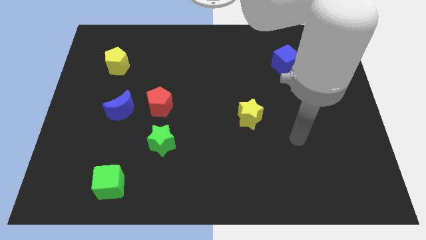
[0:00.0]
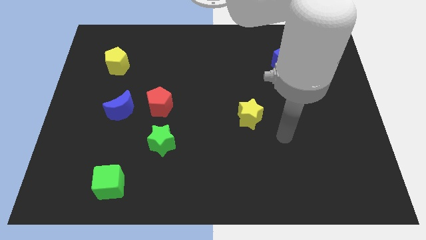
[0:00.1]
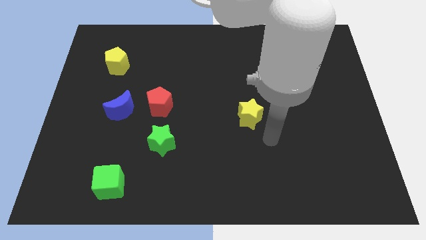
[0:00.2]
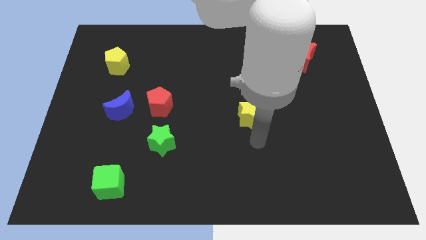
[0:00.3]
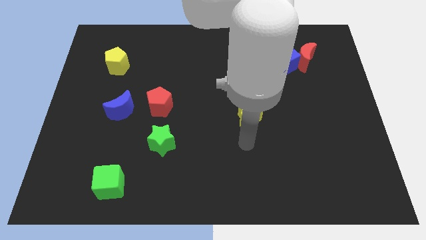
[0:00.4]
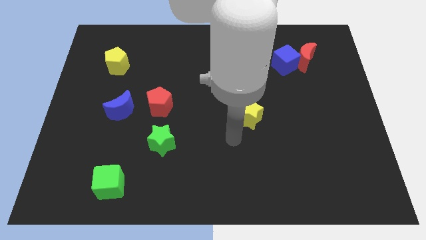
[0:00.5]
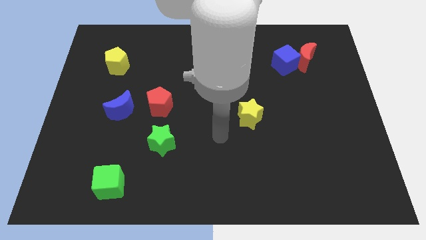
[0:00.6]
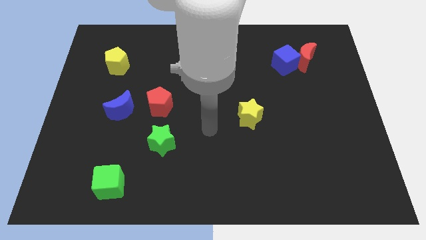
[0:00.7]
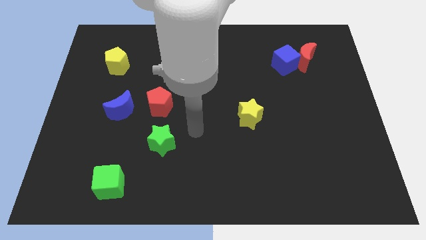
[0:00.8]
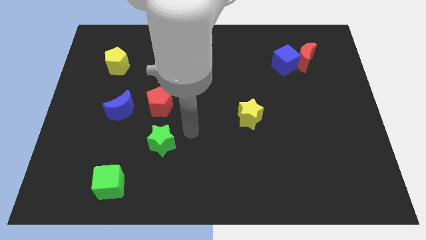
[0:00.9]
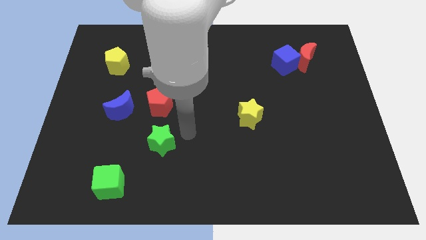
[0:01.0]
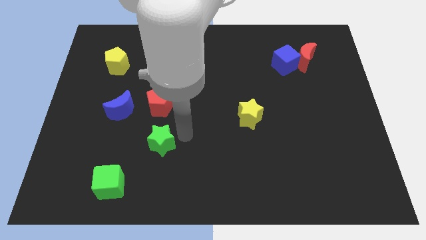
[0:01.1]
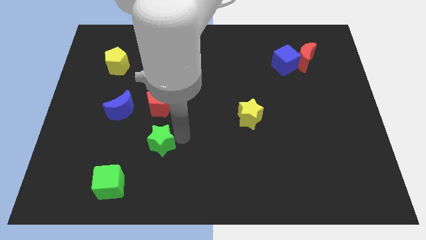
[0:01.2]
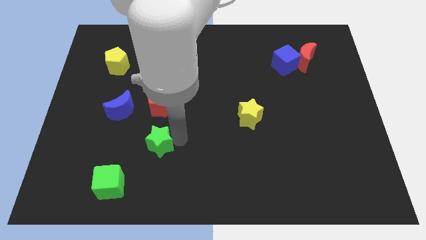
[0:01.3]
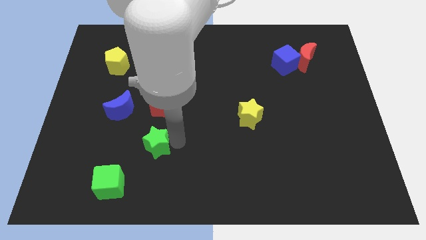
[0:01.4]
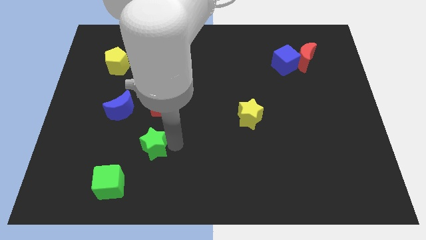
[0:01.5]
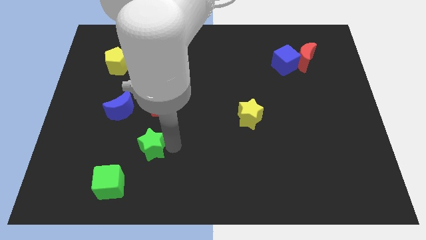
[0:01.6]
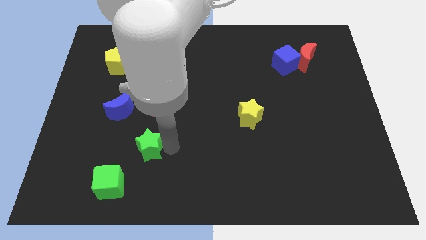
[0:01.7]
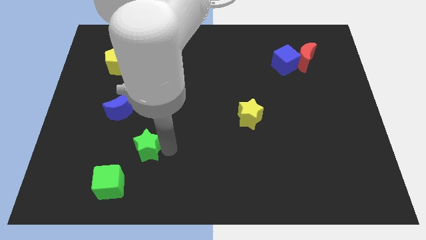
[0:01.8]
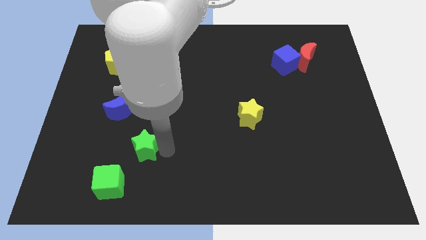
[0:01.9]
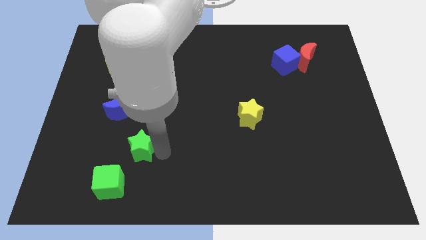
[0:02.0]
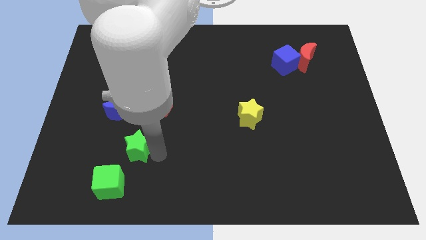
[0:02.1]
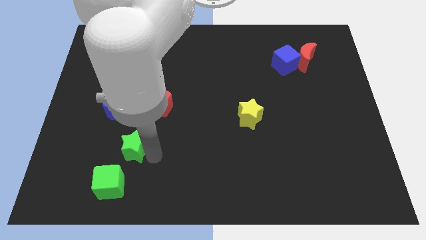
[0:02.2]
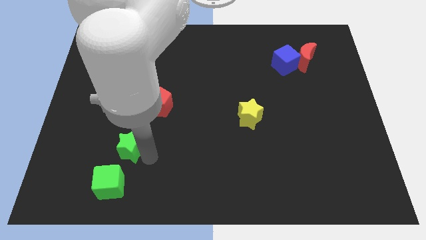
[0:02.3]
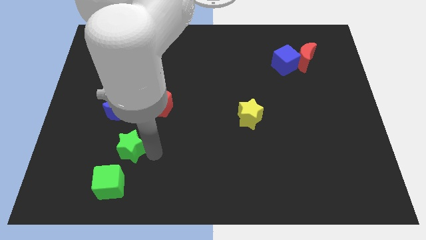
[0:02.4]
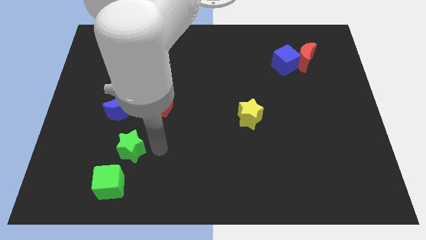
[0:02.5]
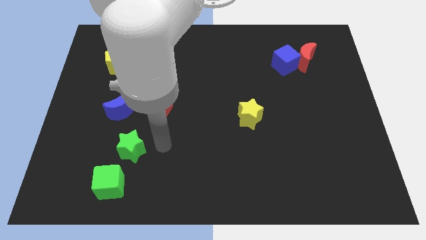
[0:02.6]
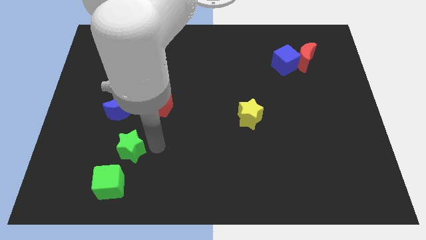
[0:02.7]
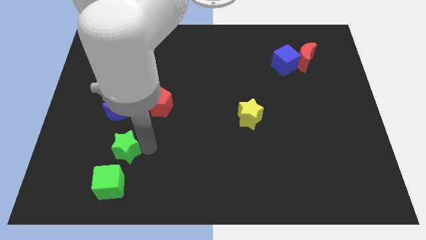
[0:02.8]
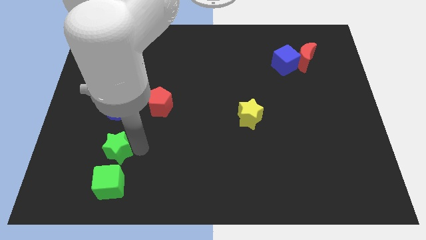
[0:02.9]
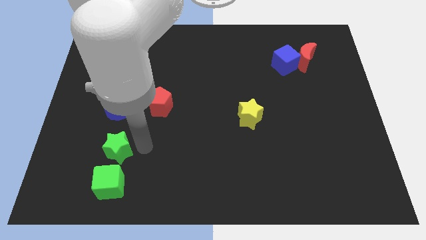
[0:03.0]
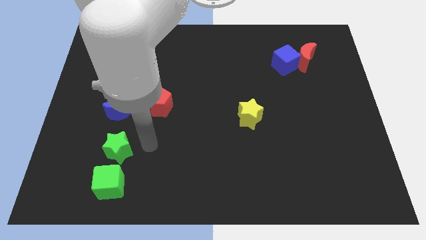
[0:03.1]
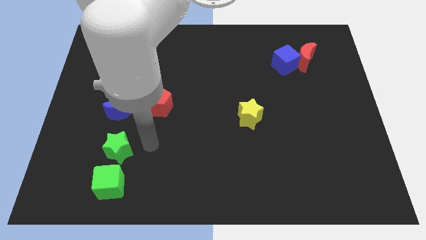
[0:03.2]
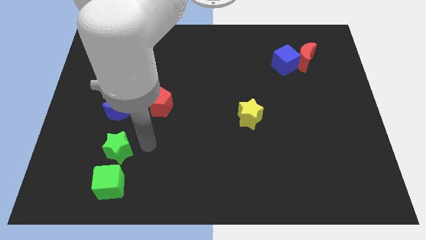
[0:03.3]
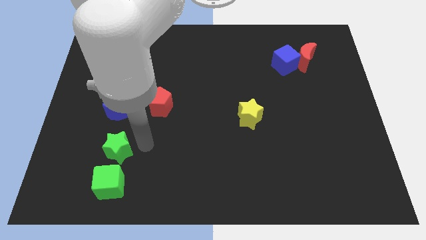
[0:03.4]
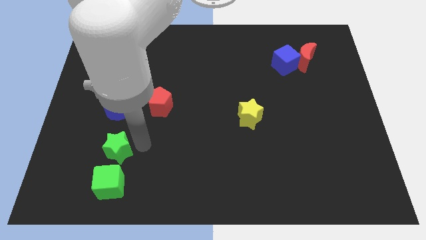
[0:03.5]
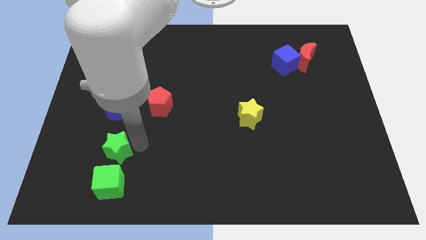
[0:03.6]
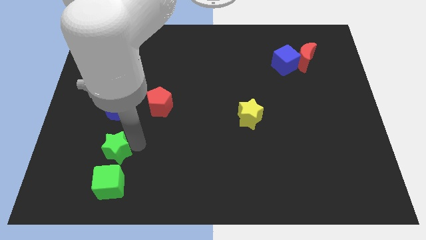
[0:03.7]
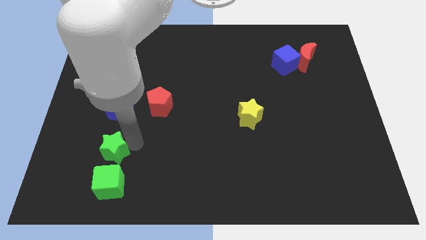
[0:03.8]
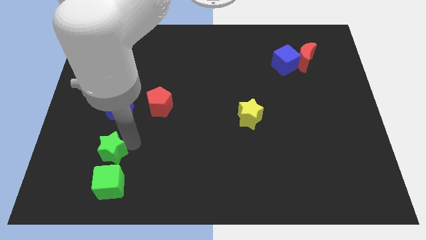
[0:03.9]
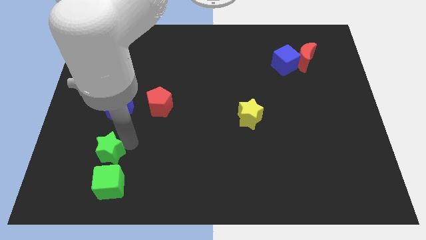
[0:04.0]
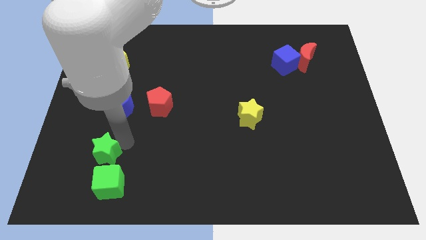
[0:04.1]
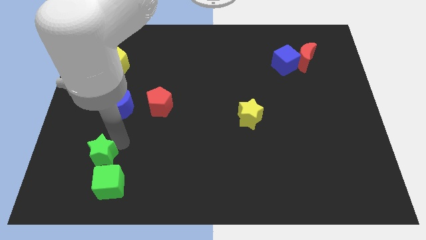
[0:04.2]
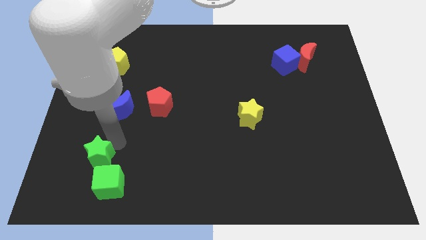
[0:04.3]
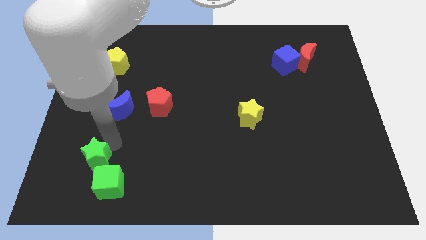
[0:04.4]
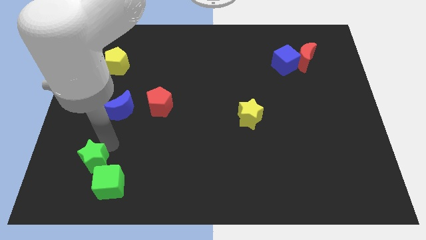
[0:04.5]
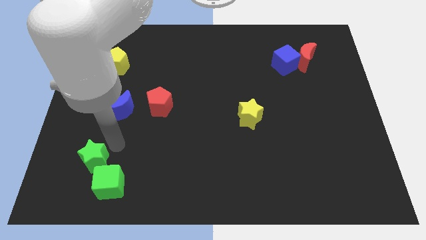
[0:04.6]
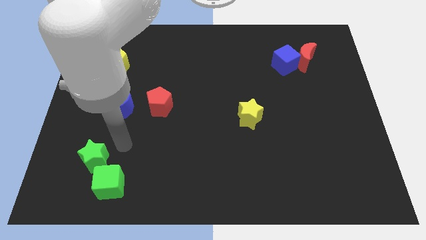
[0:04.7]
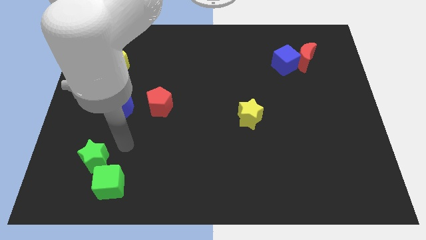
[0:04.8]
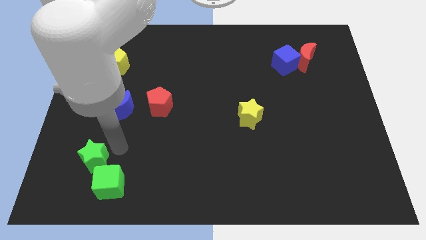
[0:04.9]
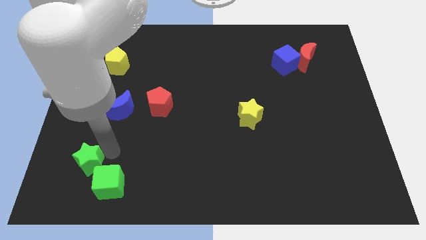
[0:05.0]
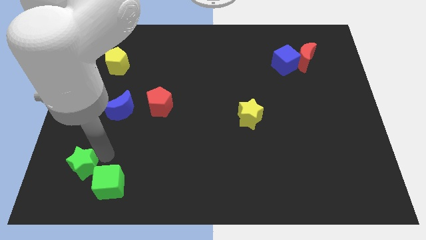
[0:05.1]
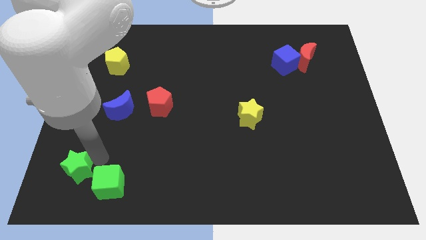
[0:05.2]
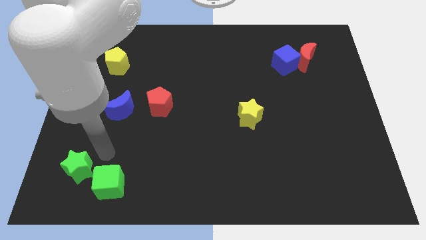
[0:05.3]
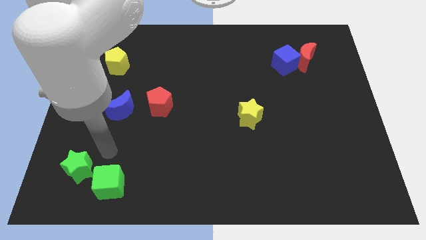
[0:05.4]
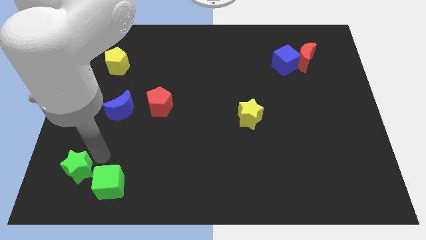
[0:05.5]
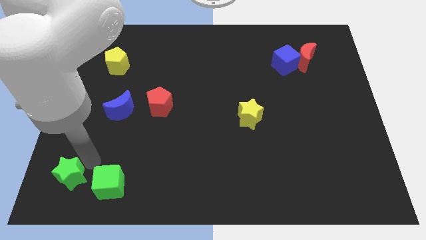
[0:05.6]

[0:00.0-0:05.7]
put the green star to the bottom left
